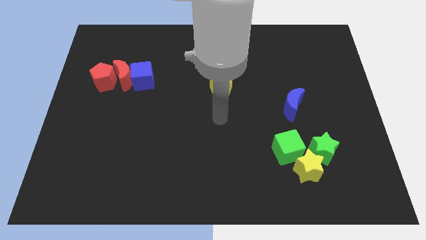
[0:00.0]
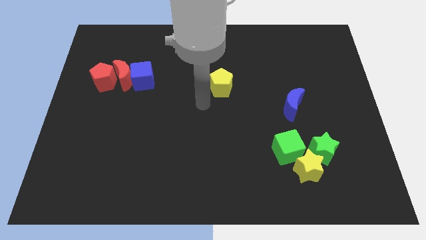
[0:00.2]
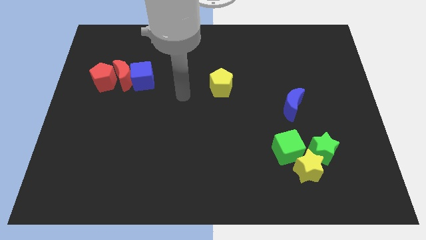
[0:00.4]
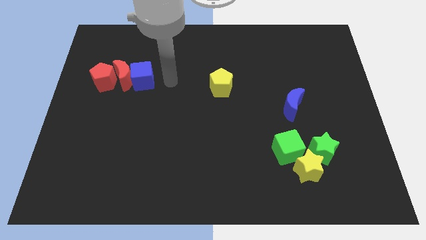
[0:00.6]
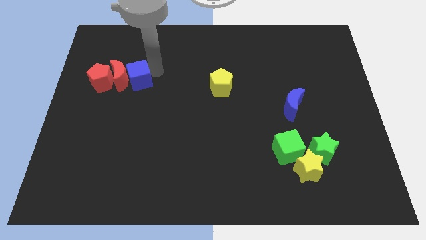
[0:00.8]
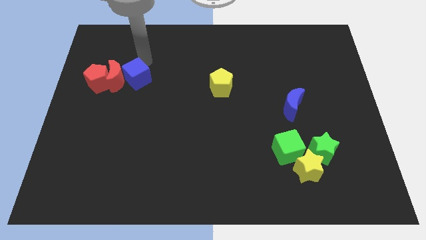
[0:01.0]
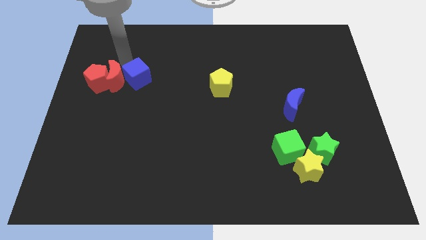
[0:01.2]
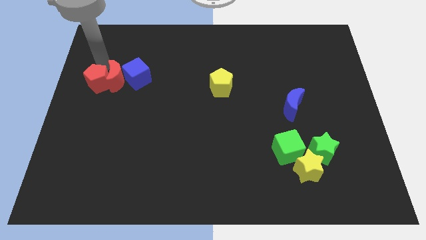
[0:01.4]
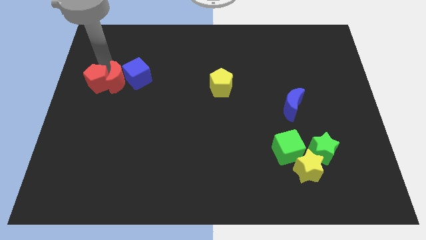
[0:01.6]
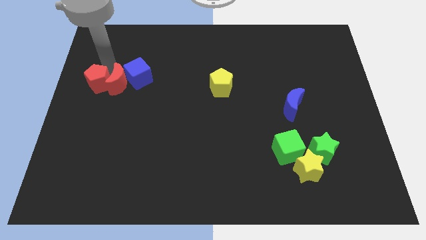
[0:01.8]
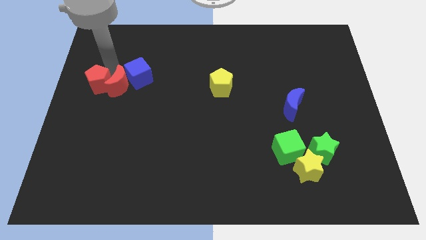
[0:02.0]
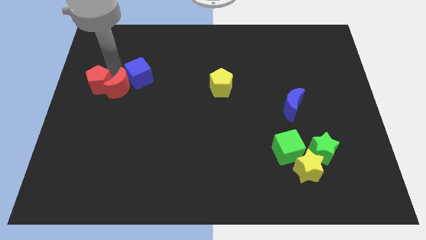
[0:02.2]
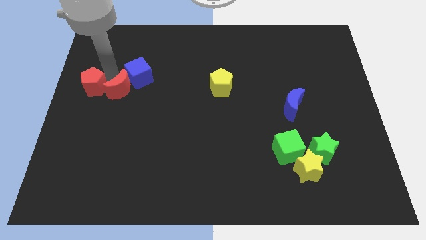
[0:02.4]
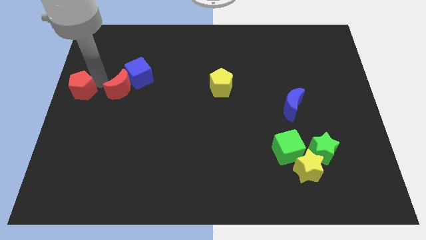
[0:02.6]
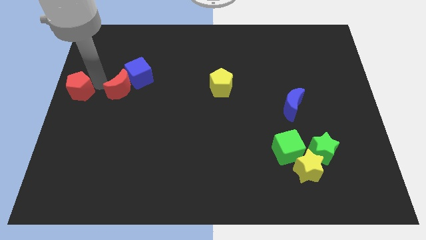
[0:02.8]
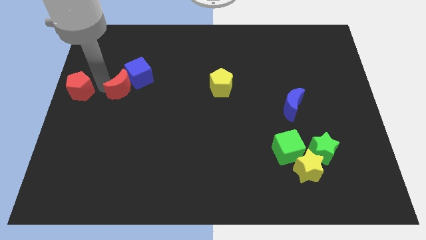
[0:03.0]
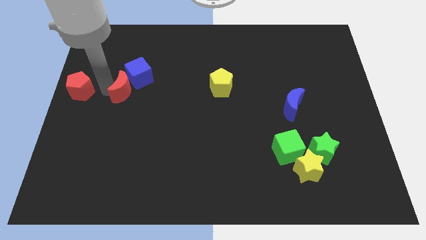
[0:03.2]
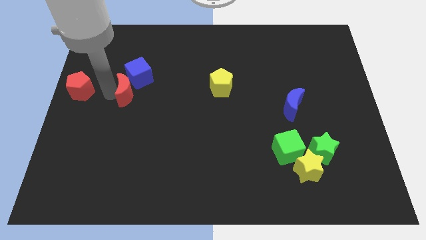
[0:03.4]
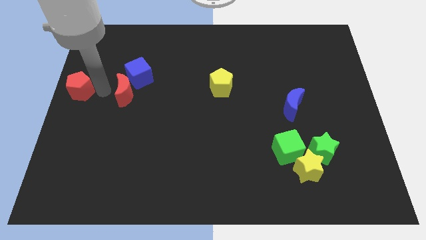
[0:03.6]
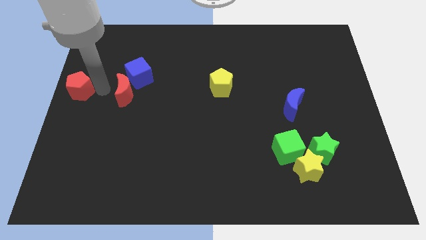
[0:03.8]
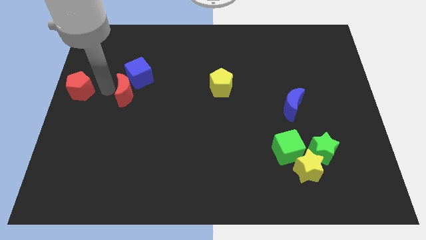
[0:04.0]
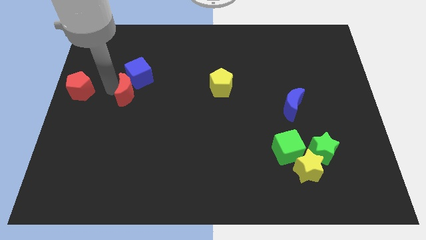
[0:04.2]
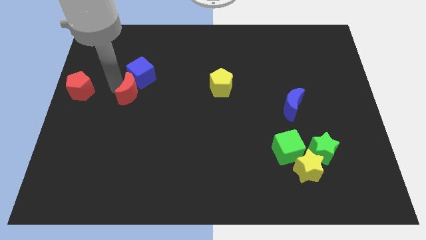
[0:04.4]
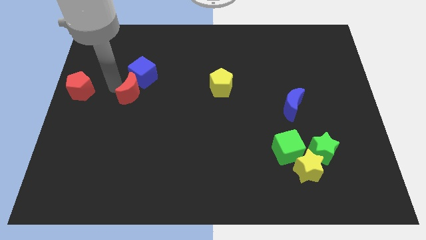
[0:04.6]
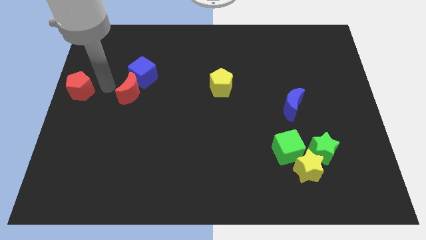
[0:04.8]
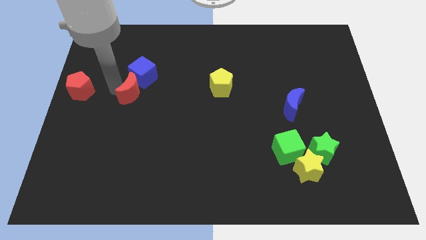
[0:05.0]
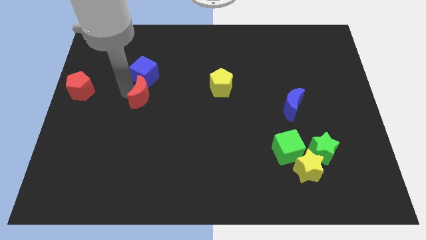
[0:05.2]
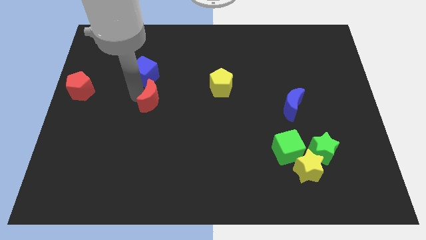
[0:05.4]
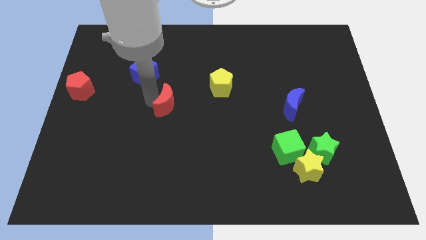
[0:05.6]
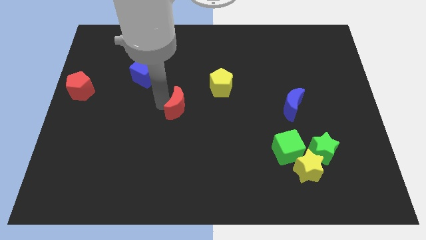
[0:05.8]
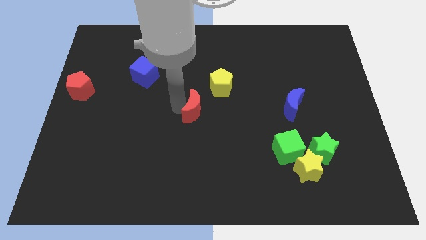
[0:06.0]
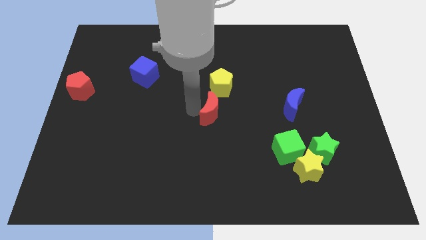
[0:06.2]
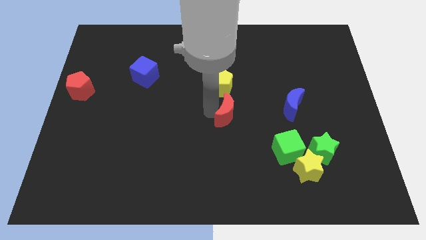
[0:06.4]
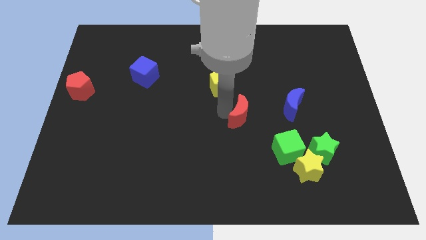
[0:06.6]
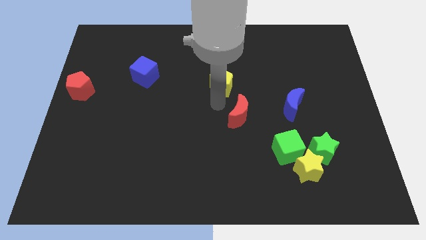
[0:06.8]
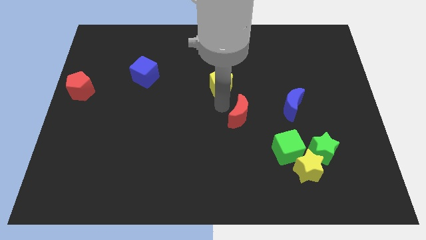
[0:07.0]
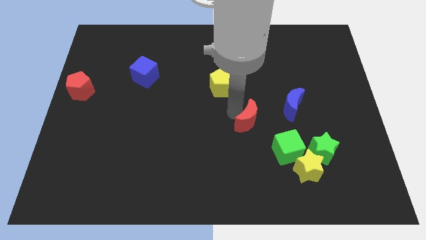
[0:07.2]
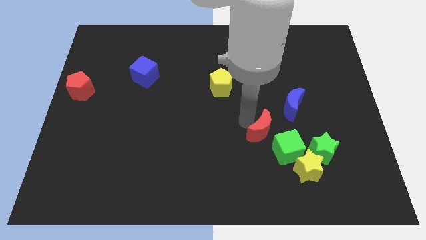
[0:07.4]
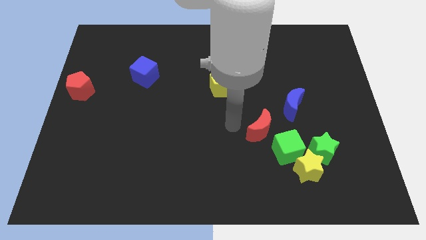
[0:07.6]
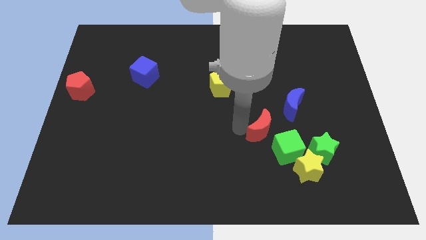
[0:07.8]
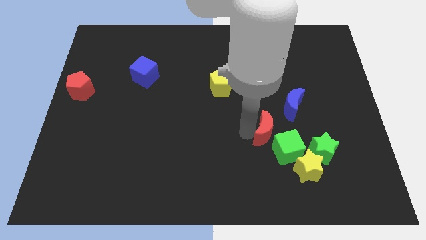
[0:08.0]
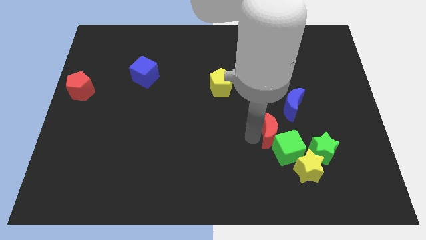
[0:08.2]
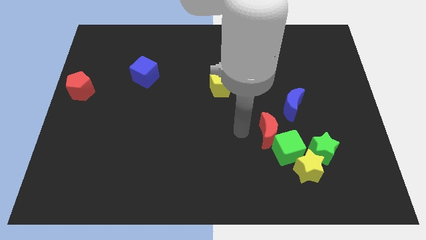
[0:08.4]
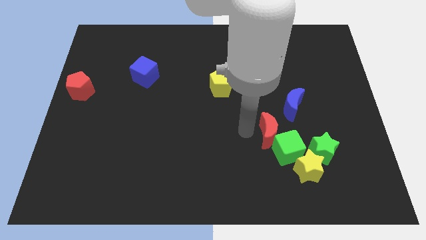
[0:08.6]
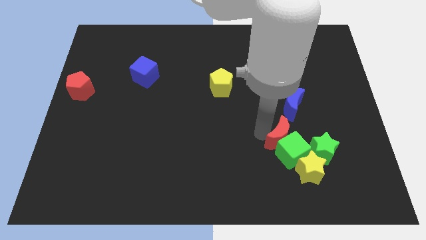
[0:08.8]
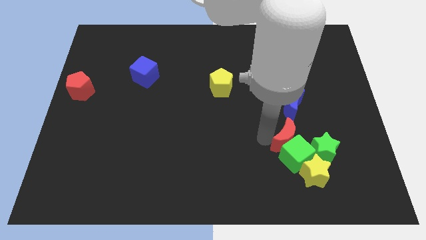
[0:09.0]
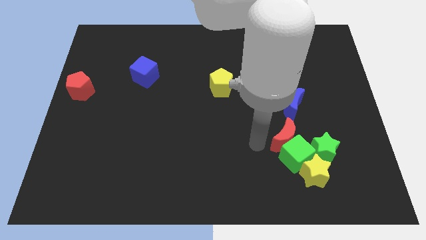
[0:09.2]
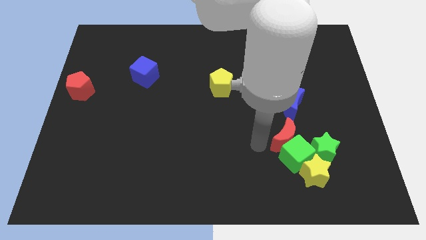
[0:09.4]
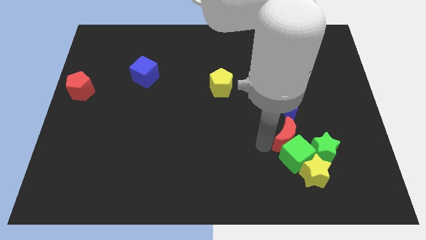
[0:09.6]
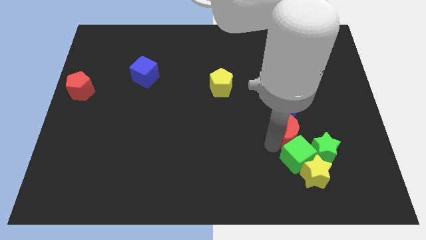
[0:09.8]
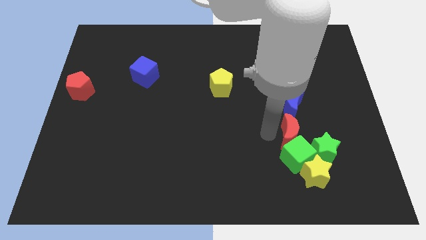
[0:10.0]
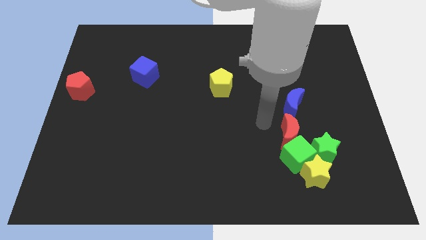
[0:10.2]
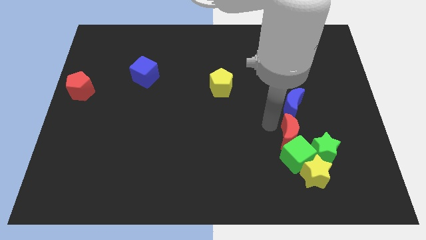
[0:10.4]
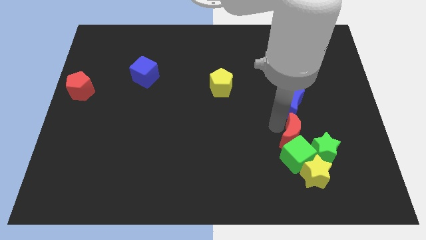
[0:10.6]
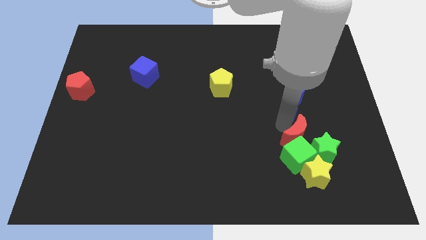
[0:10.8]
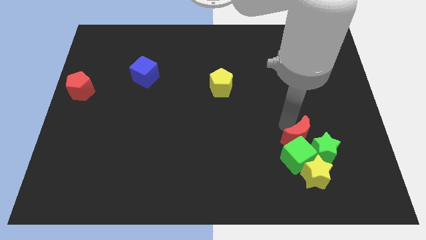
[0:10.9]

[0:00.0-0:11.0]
slide the red moon towards the green star

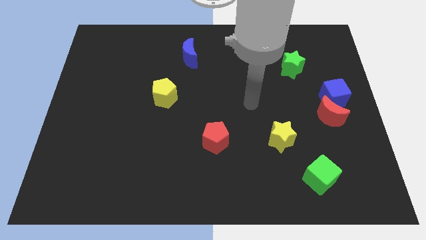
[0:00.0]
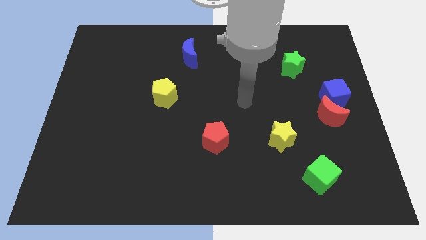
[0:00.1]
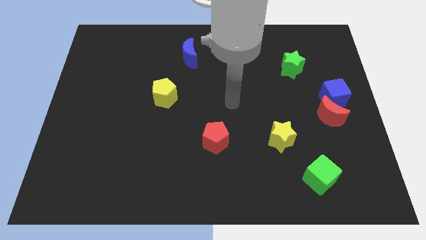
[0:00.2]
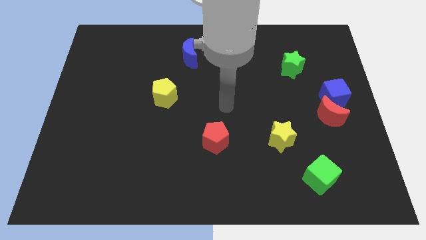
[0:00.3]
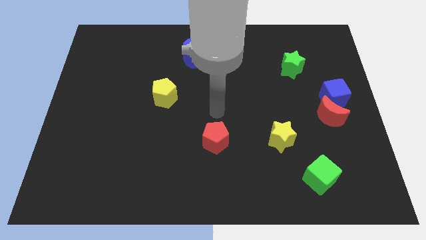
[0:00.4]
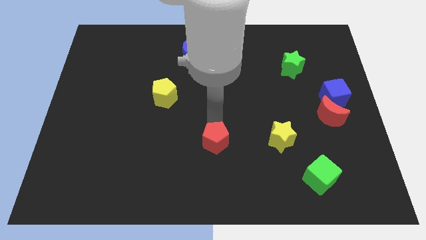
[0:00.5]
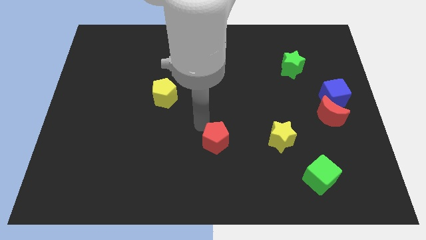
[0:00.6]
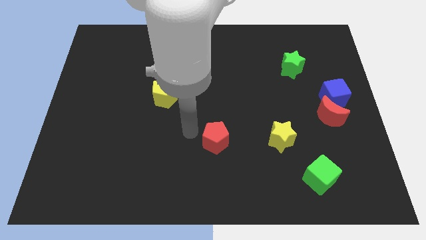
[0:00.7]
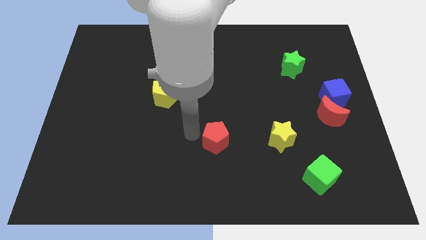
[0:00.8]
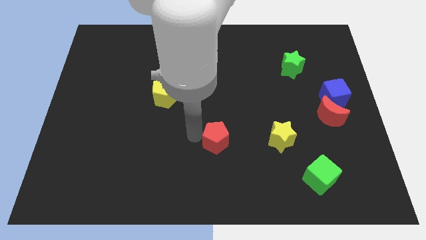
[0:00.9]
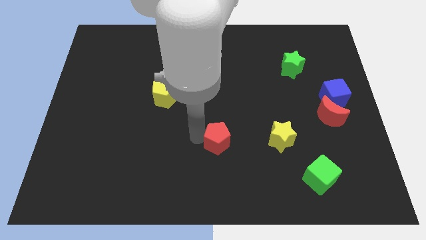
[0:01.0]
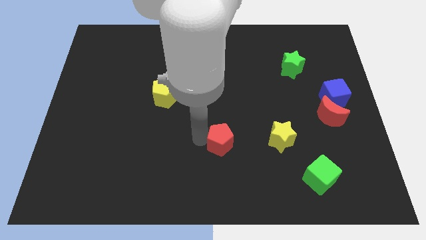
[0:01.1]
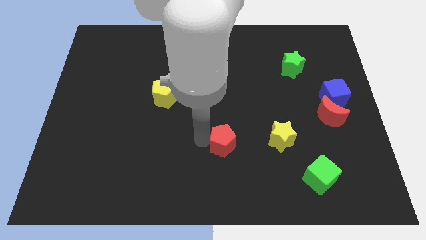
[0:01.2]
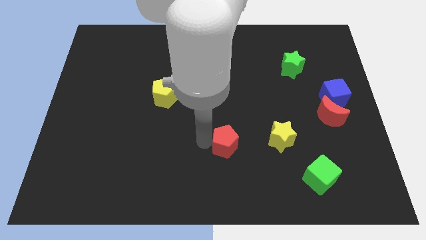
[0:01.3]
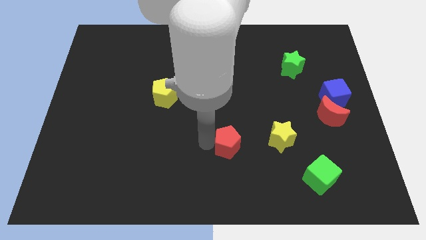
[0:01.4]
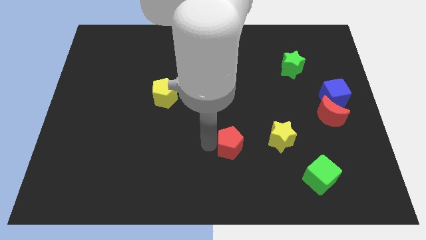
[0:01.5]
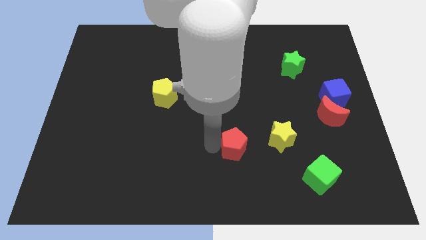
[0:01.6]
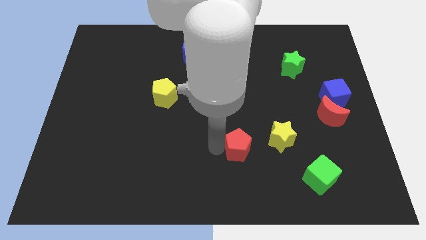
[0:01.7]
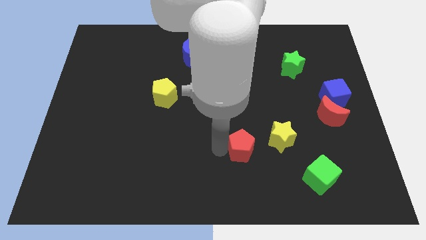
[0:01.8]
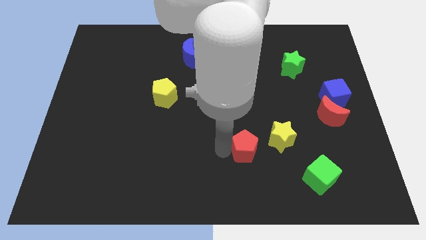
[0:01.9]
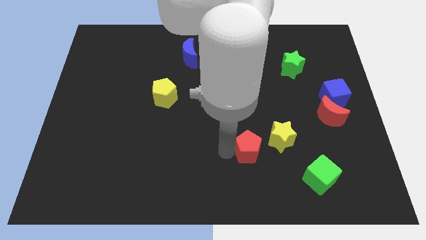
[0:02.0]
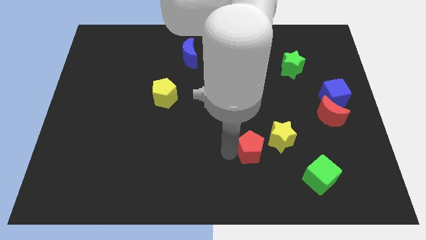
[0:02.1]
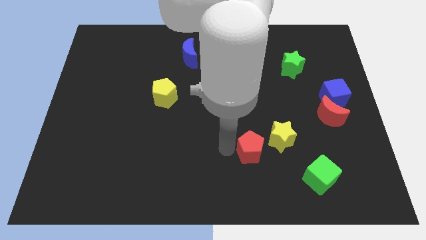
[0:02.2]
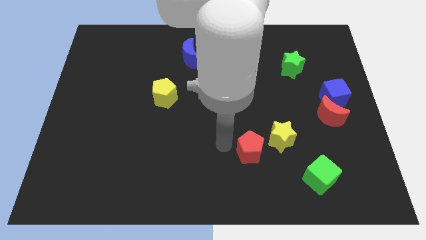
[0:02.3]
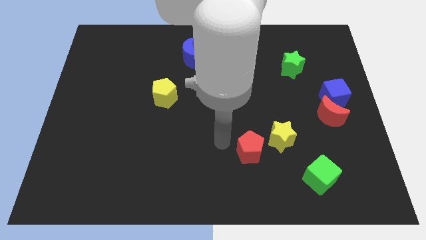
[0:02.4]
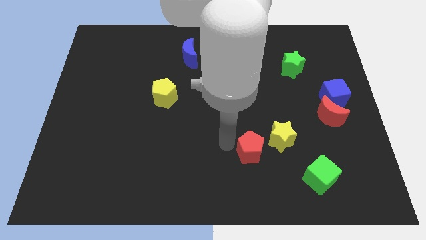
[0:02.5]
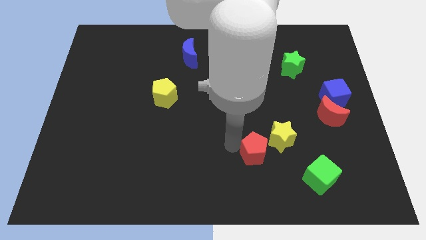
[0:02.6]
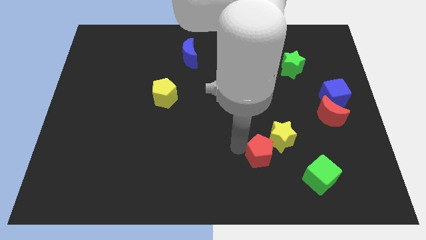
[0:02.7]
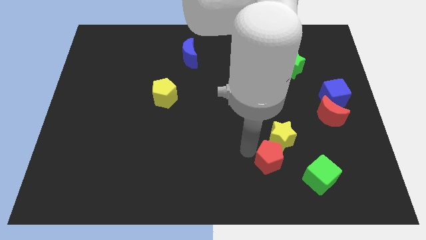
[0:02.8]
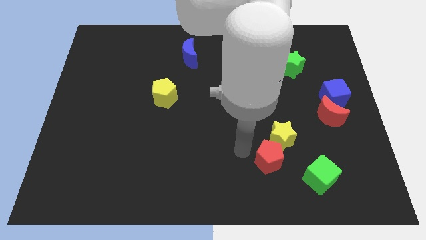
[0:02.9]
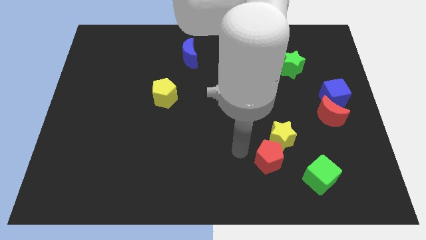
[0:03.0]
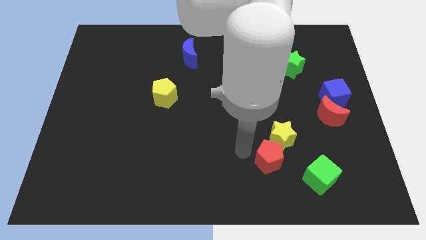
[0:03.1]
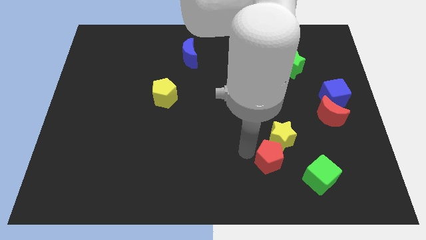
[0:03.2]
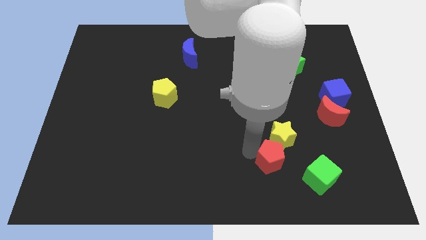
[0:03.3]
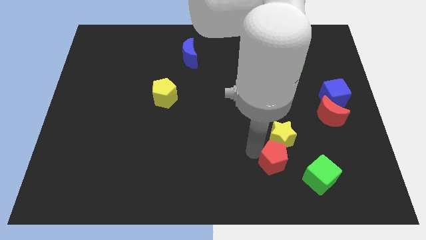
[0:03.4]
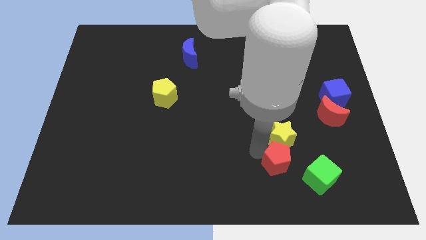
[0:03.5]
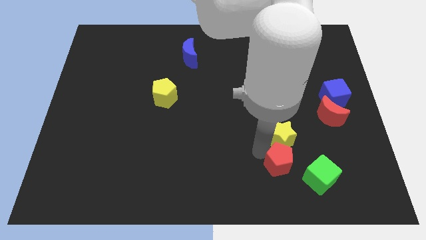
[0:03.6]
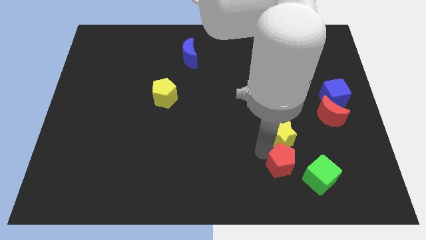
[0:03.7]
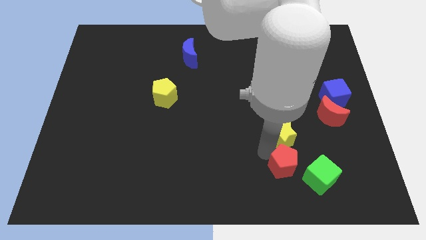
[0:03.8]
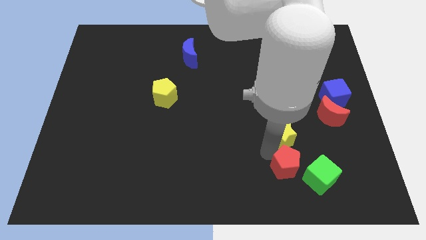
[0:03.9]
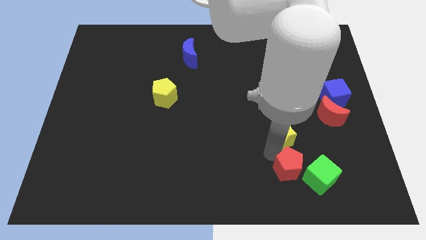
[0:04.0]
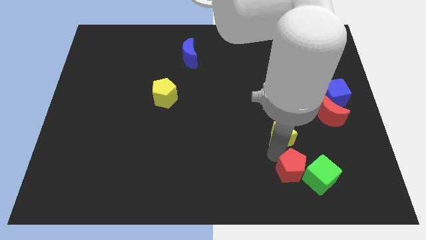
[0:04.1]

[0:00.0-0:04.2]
move the red pentagon to the green cube
